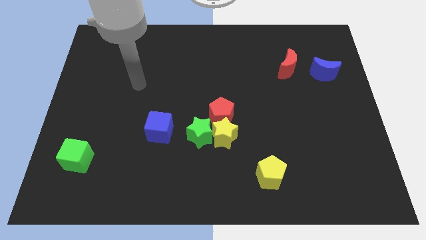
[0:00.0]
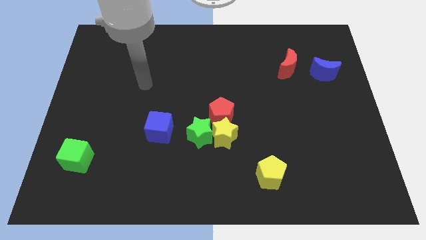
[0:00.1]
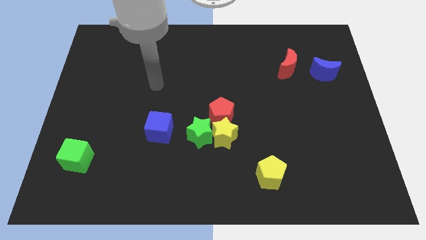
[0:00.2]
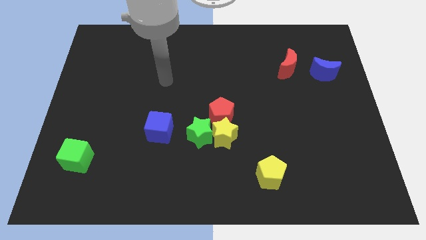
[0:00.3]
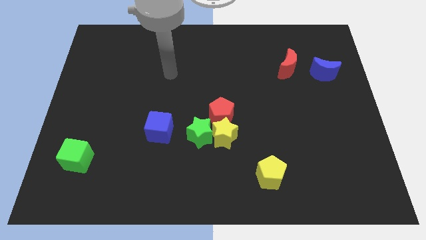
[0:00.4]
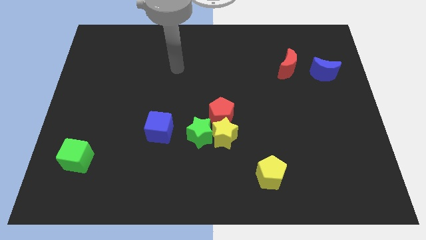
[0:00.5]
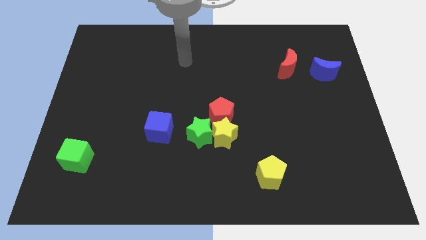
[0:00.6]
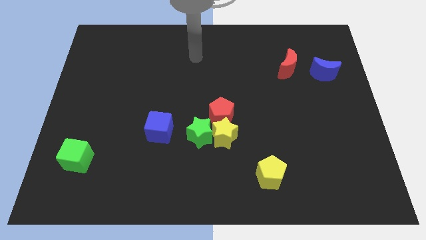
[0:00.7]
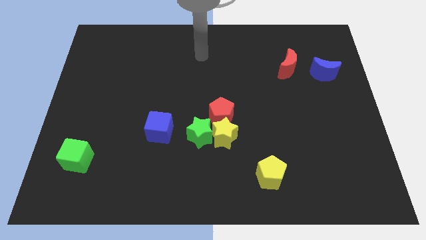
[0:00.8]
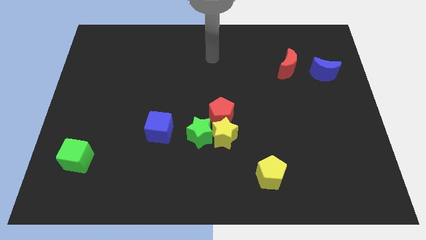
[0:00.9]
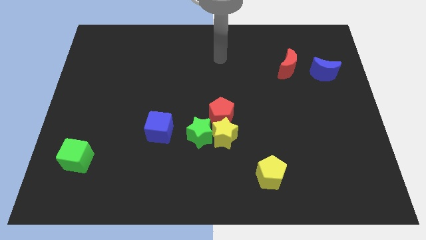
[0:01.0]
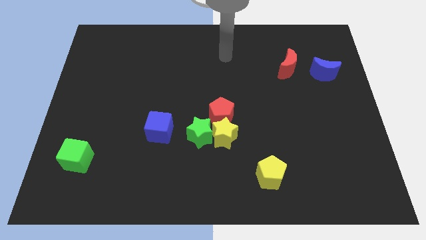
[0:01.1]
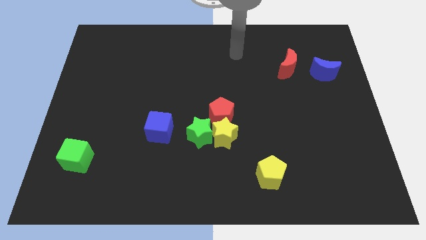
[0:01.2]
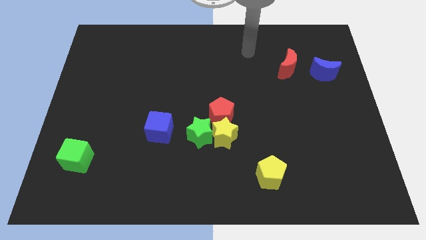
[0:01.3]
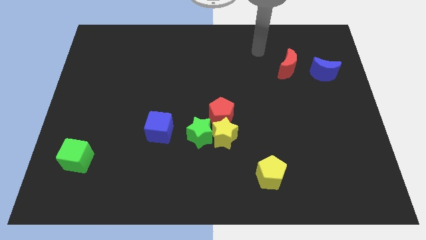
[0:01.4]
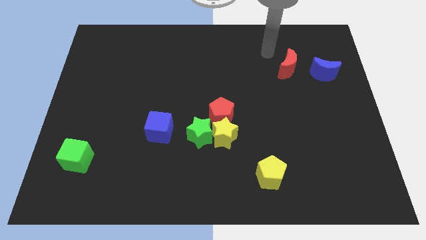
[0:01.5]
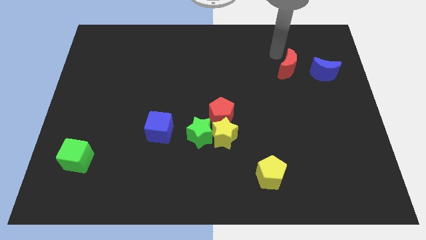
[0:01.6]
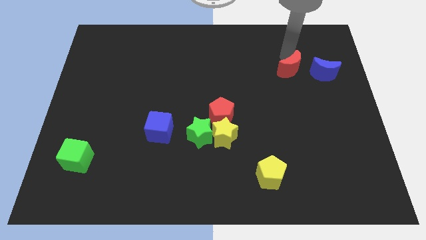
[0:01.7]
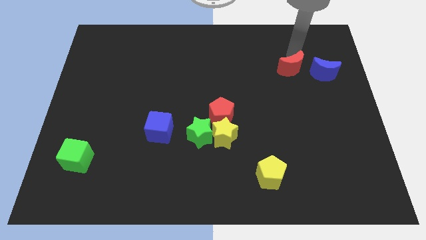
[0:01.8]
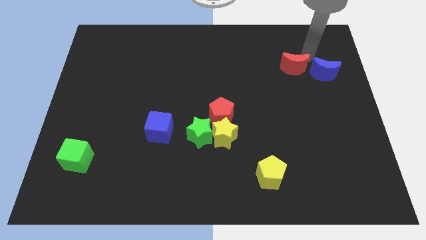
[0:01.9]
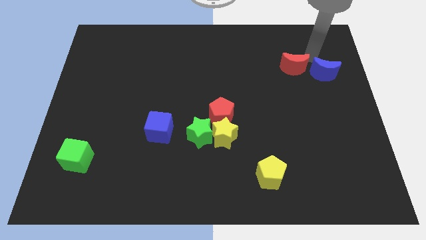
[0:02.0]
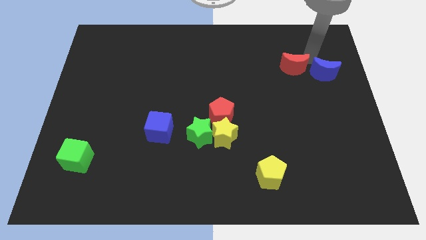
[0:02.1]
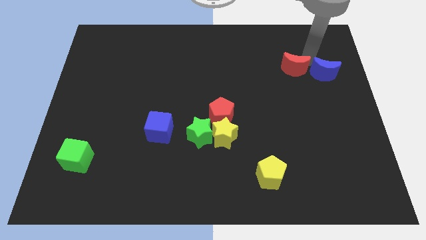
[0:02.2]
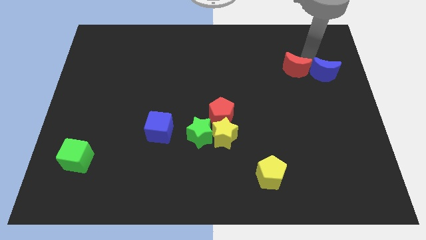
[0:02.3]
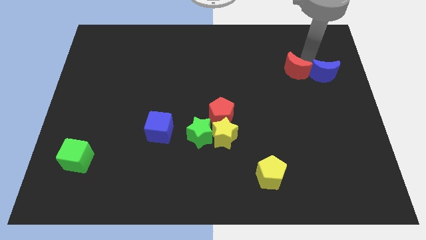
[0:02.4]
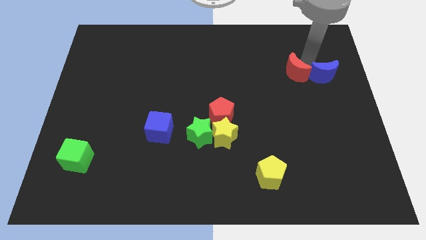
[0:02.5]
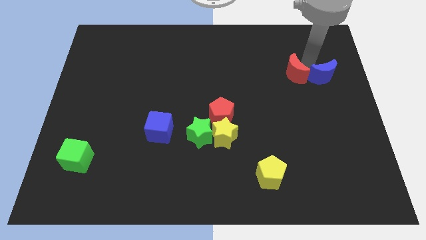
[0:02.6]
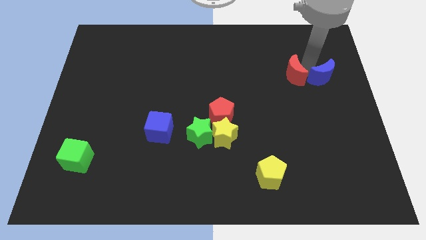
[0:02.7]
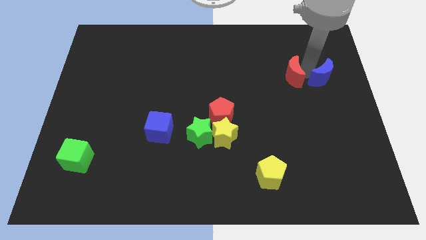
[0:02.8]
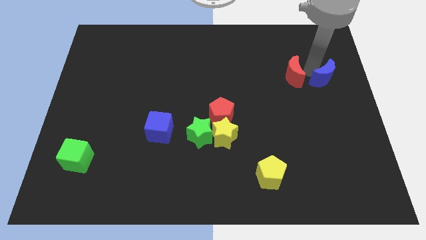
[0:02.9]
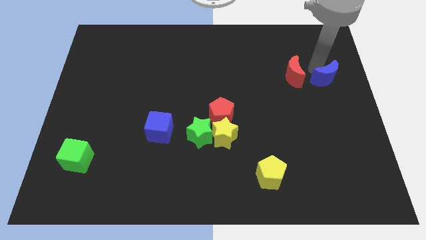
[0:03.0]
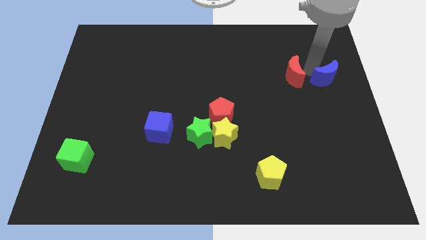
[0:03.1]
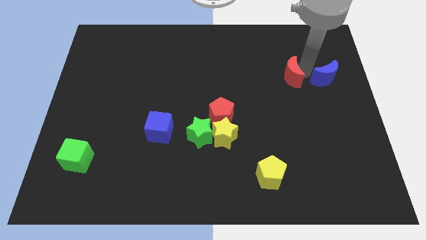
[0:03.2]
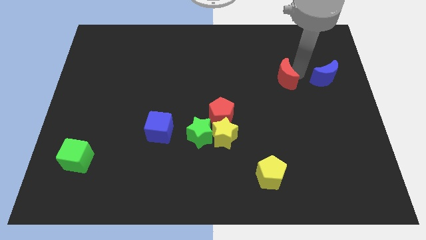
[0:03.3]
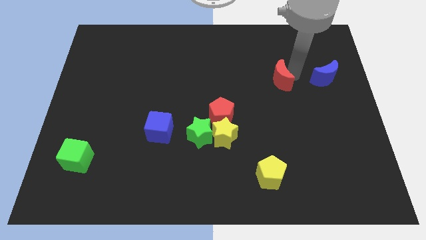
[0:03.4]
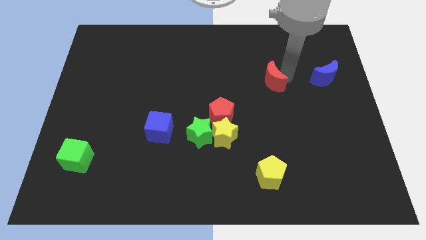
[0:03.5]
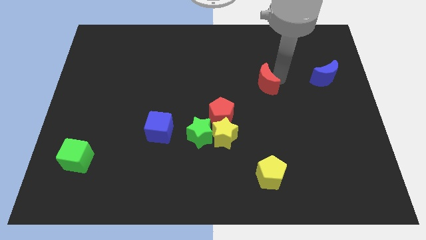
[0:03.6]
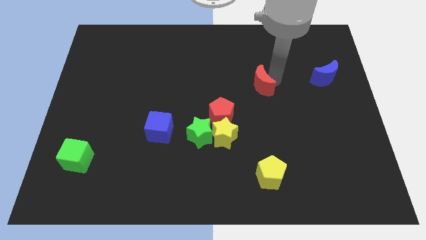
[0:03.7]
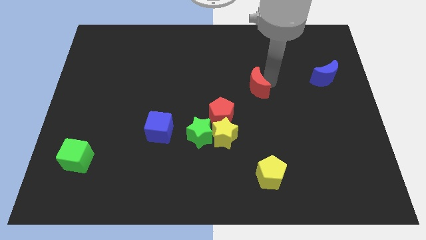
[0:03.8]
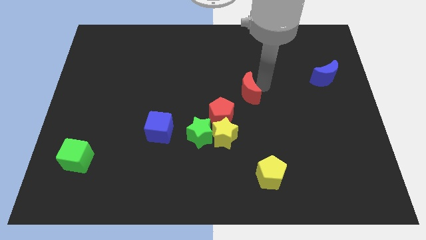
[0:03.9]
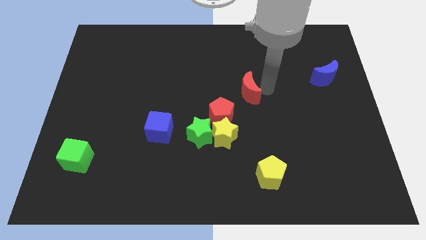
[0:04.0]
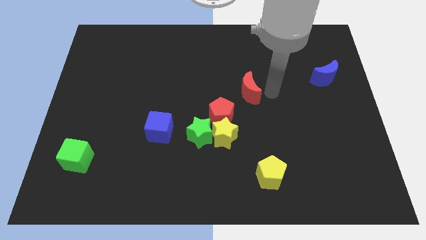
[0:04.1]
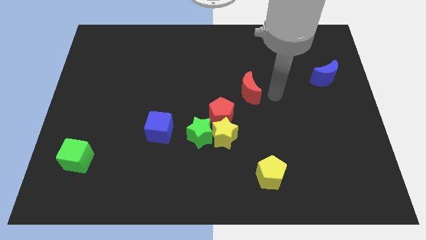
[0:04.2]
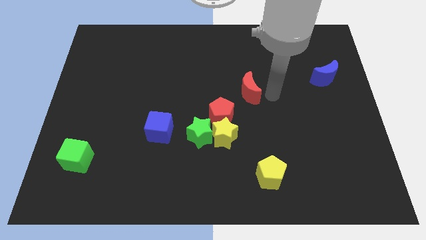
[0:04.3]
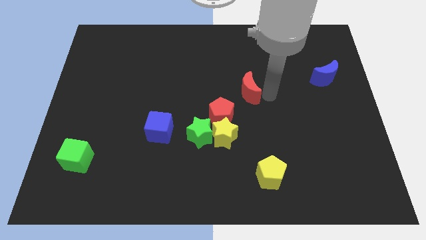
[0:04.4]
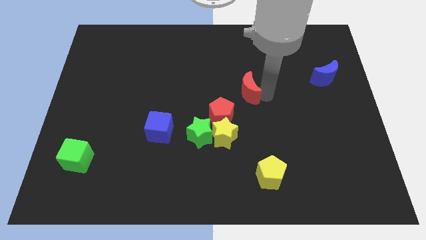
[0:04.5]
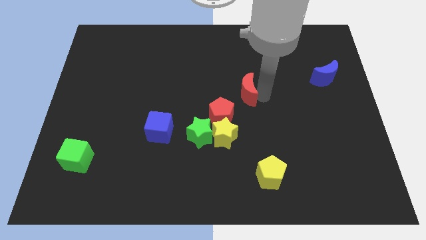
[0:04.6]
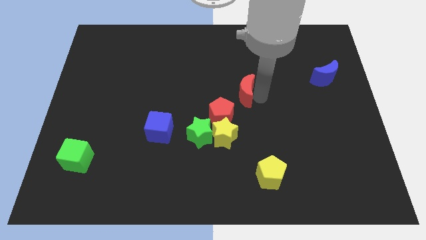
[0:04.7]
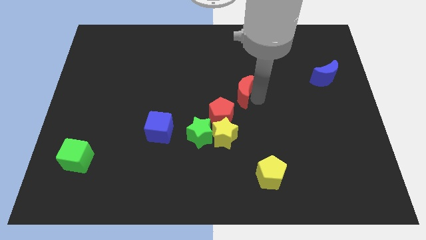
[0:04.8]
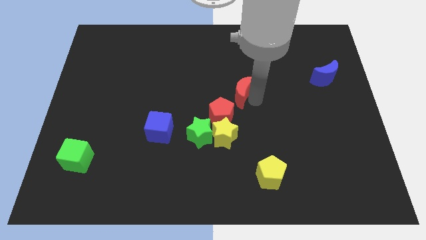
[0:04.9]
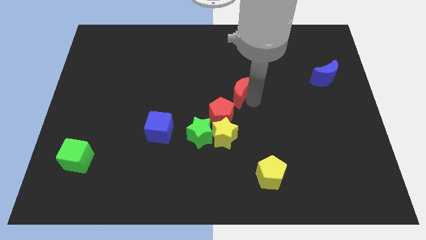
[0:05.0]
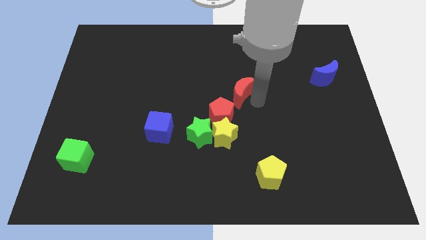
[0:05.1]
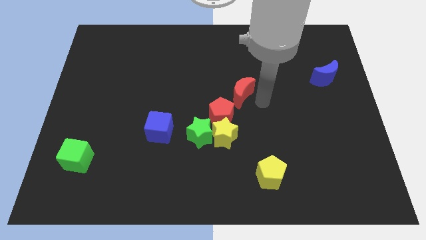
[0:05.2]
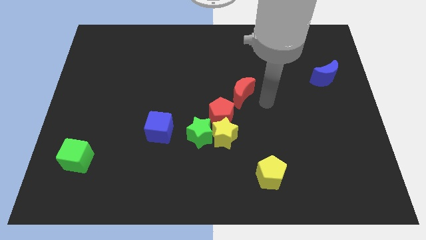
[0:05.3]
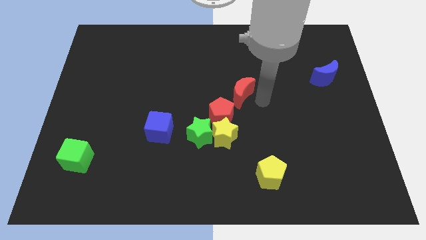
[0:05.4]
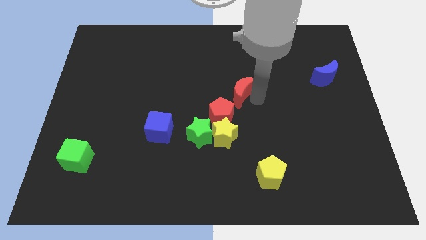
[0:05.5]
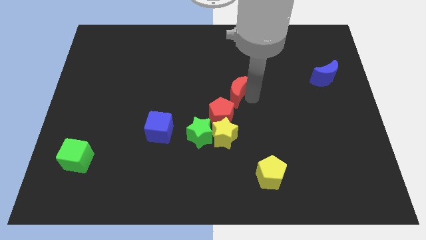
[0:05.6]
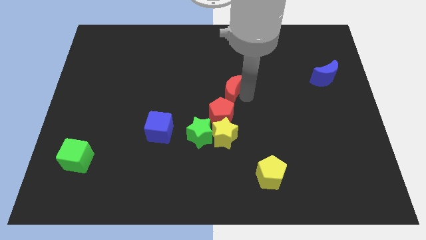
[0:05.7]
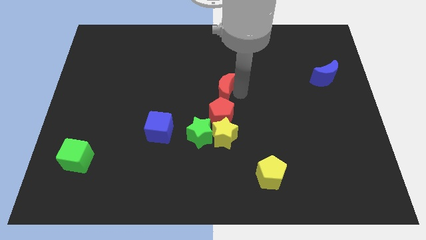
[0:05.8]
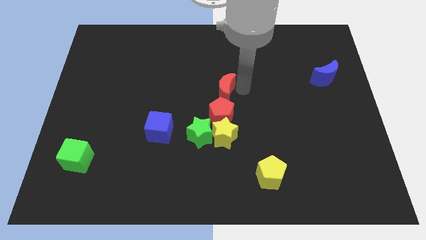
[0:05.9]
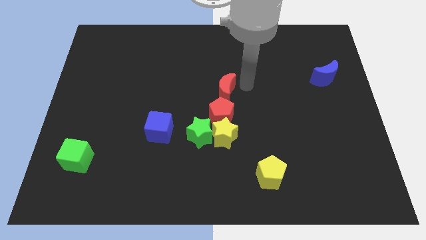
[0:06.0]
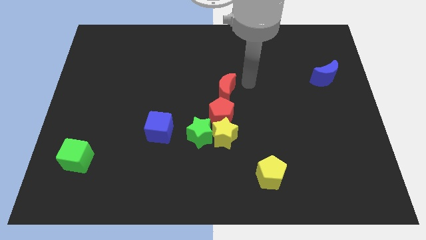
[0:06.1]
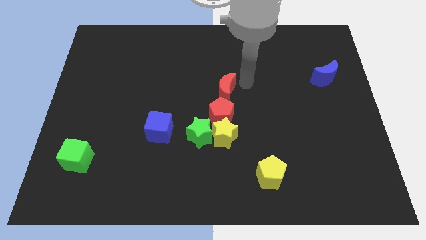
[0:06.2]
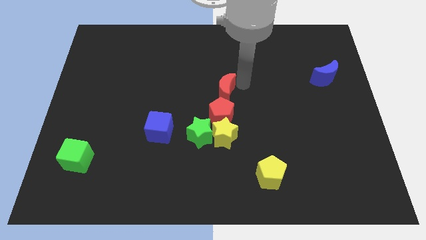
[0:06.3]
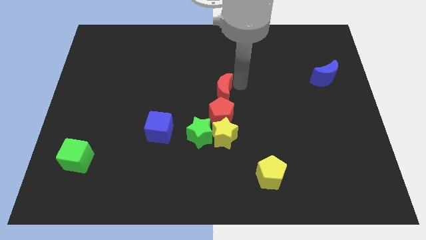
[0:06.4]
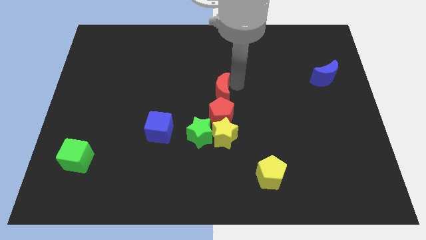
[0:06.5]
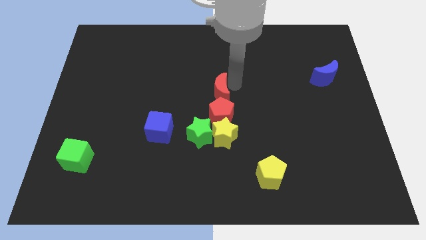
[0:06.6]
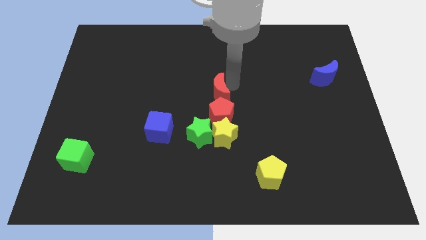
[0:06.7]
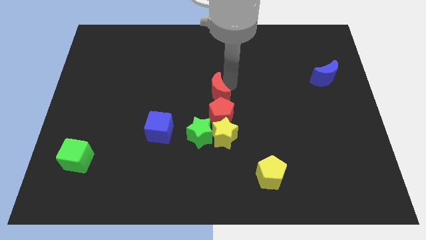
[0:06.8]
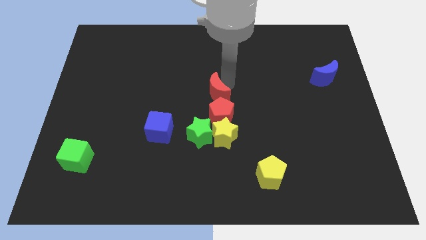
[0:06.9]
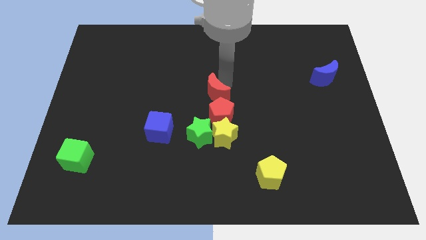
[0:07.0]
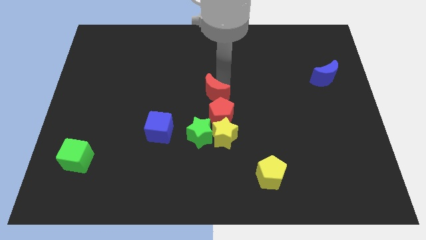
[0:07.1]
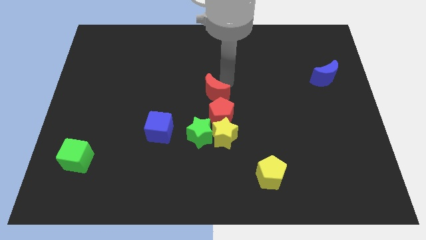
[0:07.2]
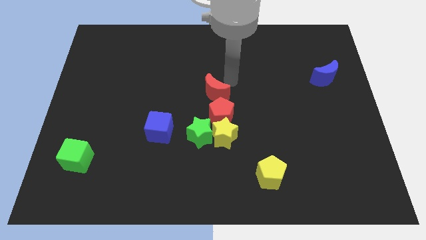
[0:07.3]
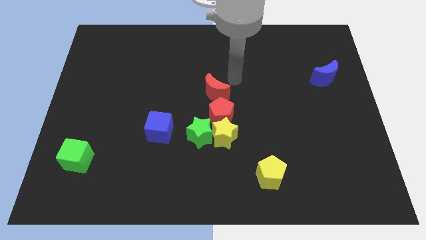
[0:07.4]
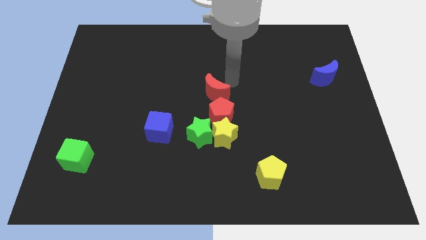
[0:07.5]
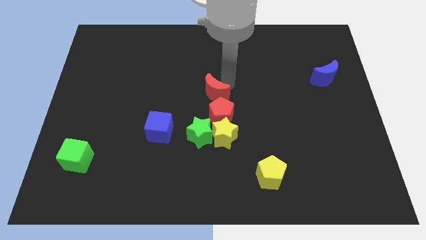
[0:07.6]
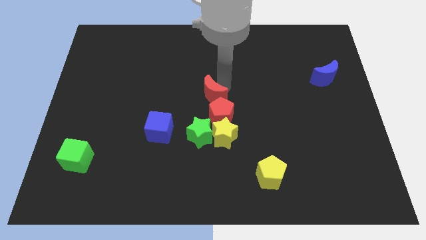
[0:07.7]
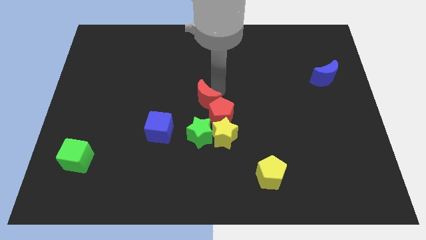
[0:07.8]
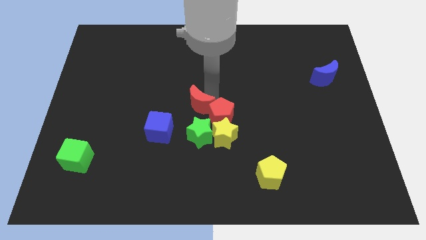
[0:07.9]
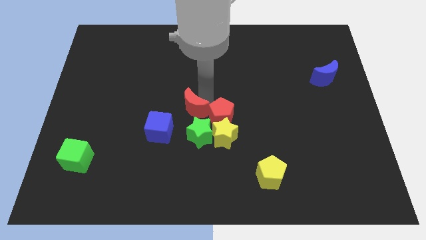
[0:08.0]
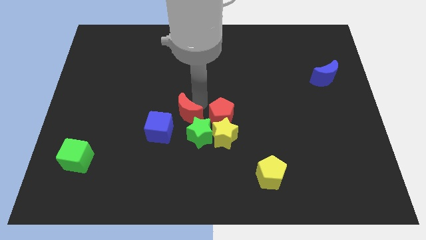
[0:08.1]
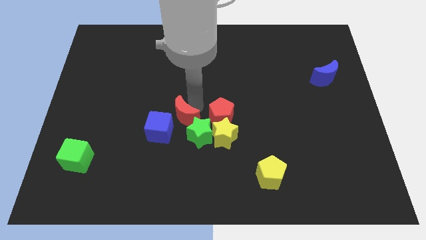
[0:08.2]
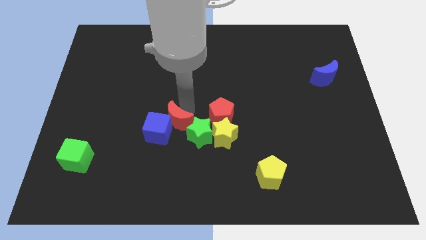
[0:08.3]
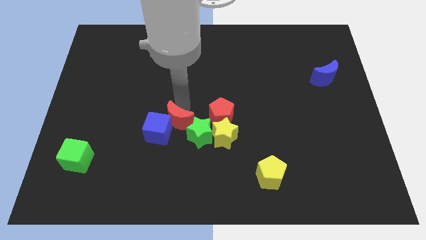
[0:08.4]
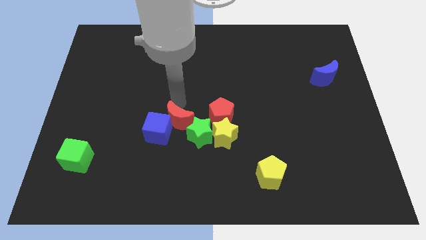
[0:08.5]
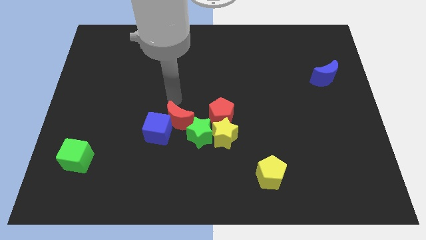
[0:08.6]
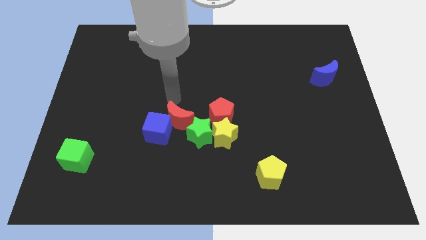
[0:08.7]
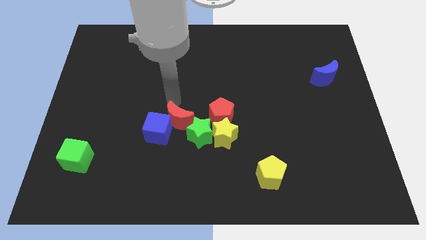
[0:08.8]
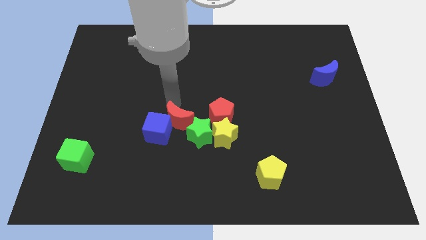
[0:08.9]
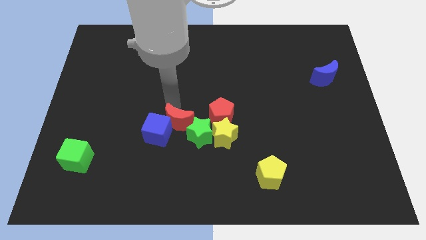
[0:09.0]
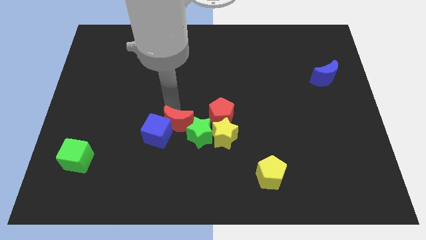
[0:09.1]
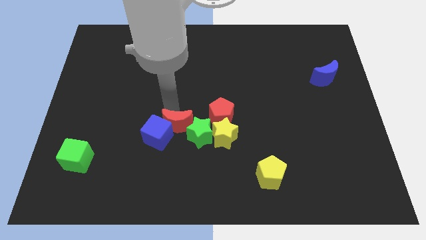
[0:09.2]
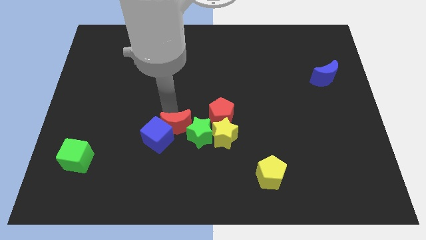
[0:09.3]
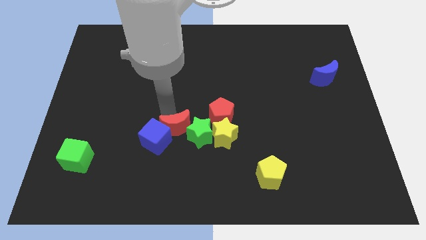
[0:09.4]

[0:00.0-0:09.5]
move the red moon to the bottom left side of the red pentagon
